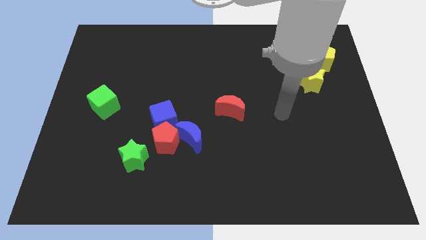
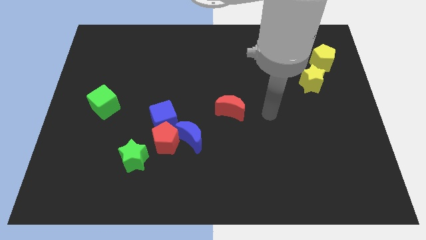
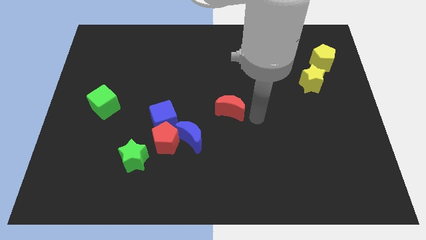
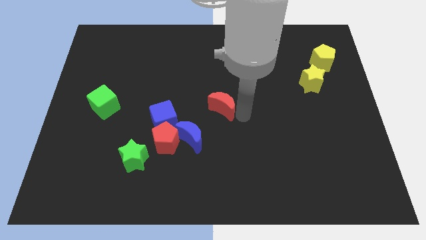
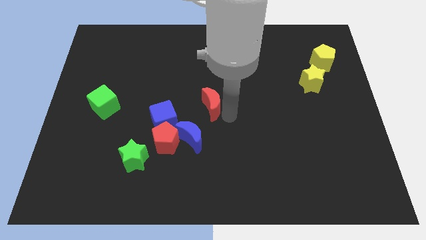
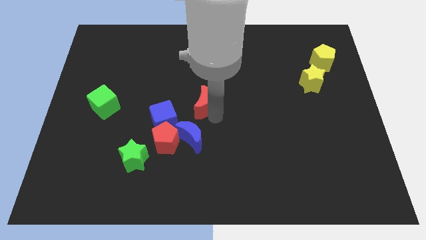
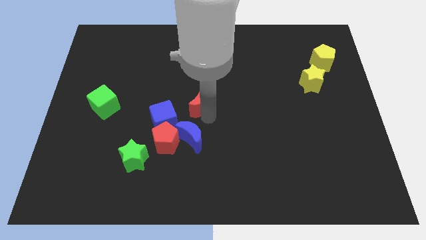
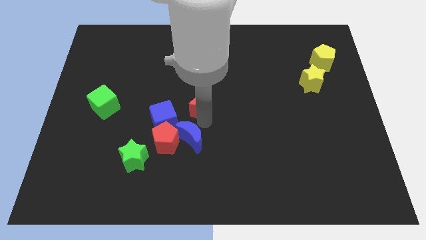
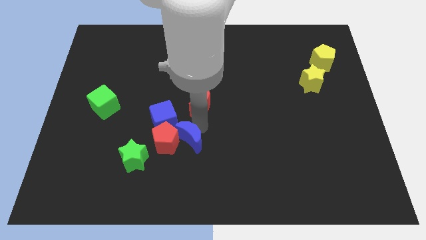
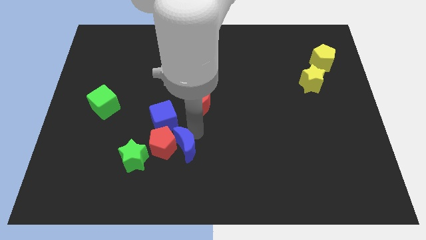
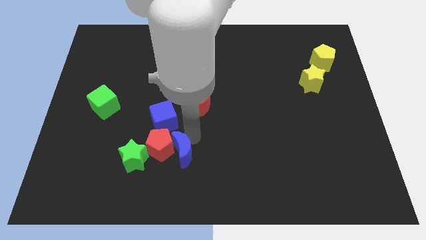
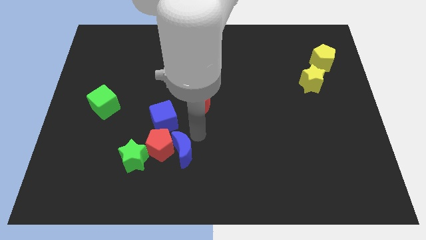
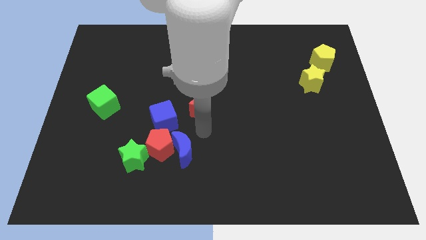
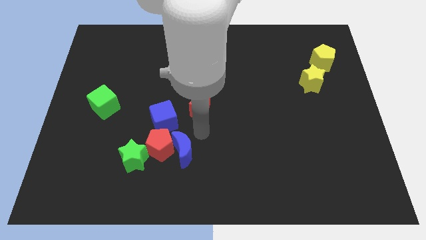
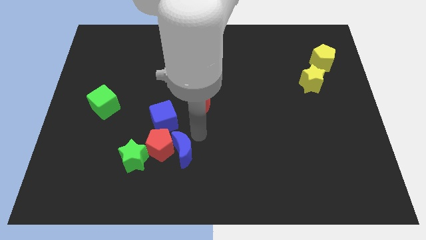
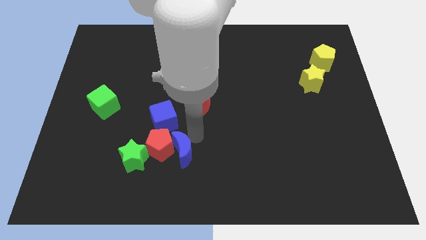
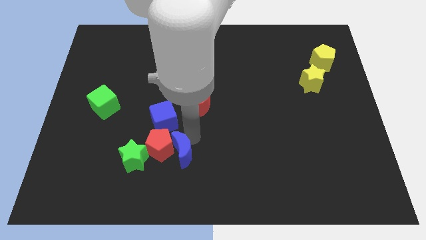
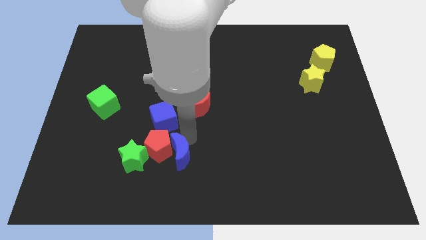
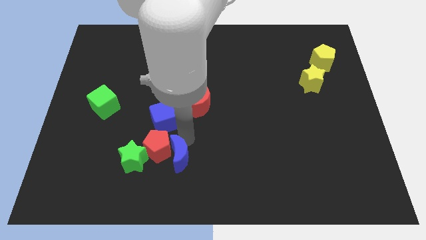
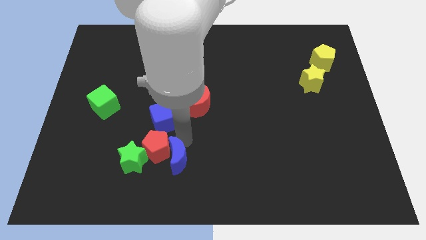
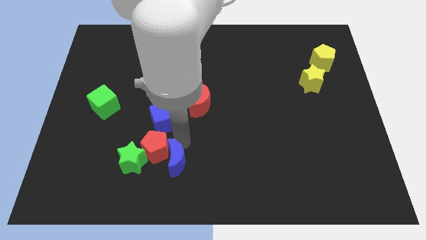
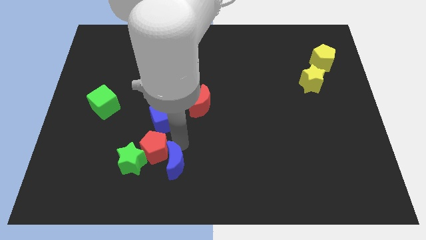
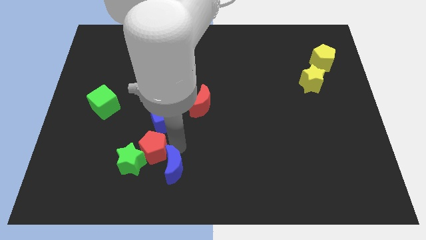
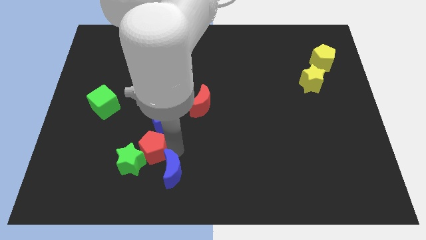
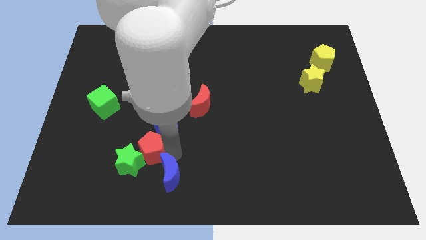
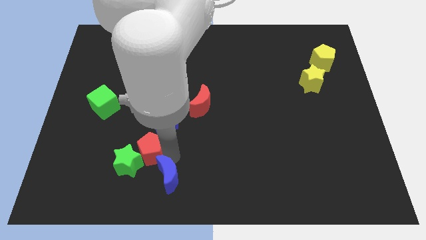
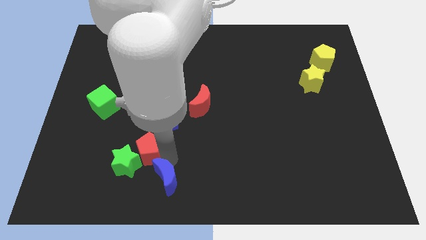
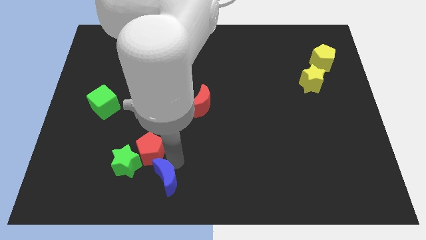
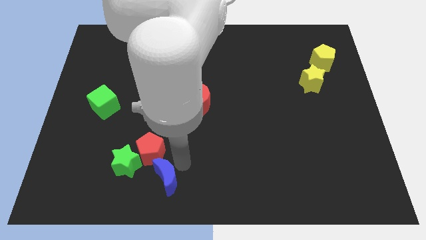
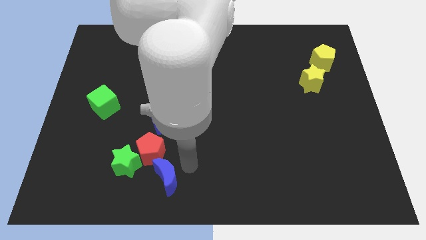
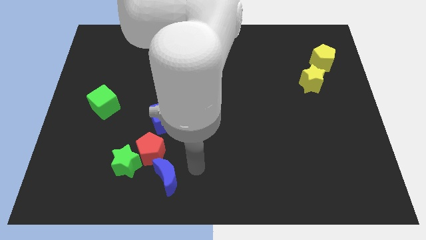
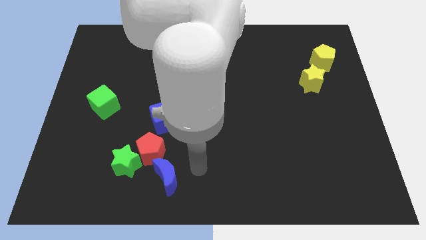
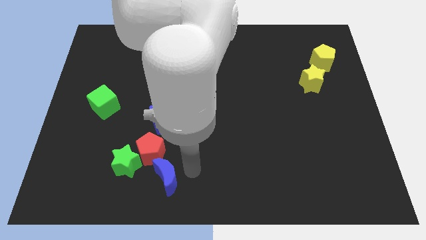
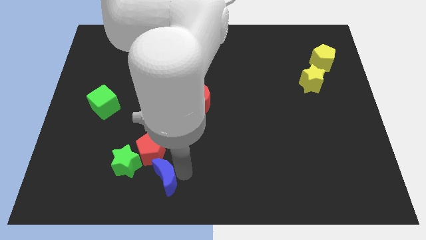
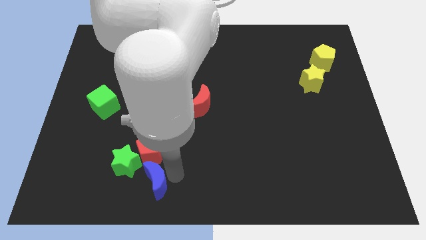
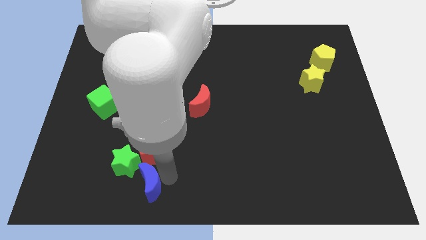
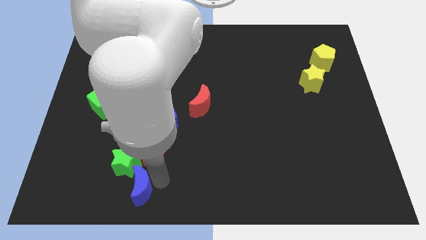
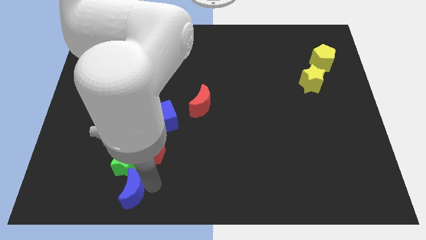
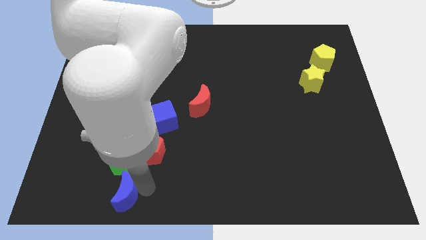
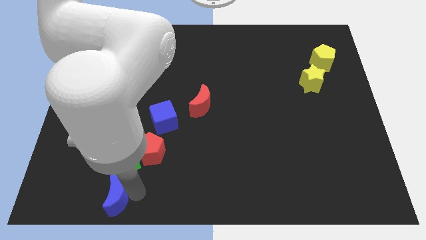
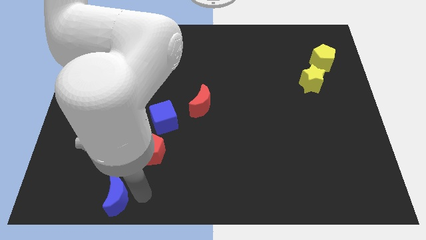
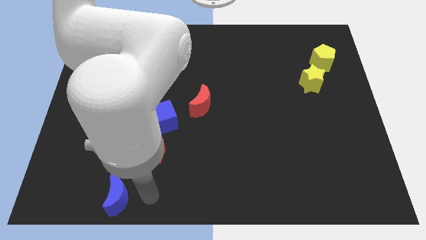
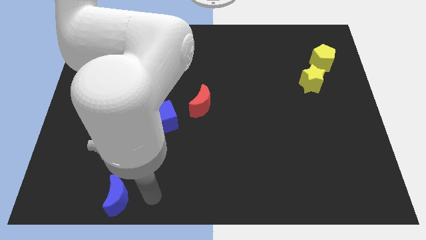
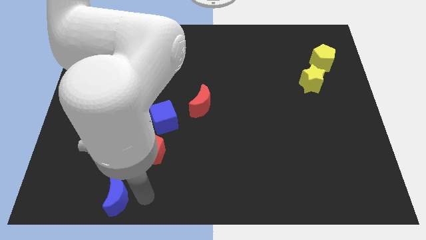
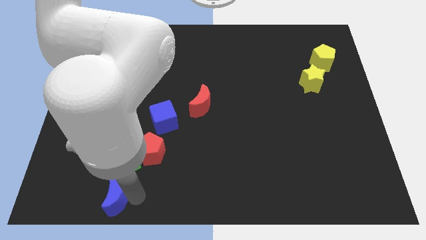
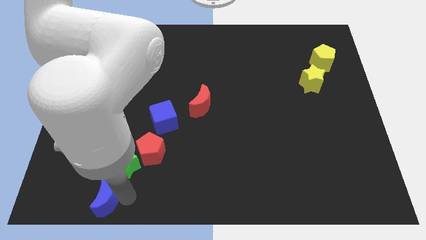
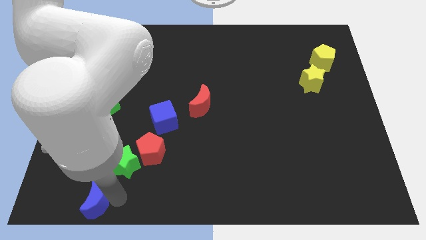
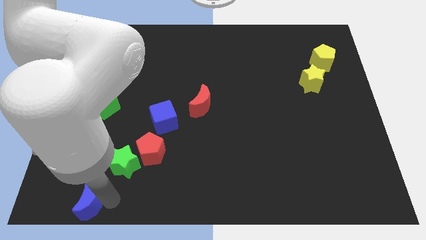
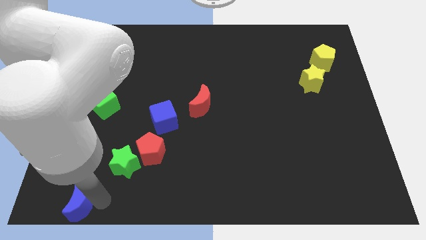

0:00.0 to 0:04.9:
put the blue moon to the lower left corner

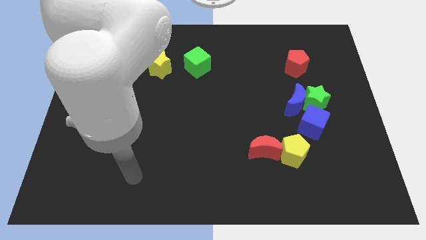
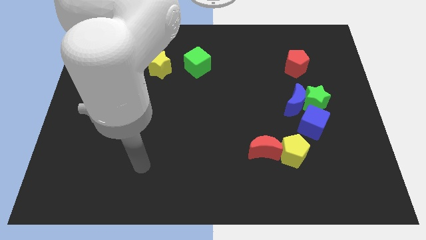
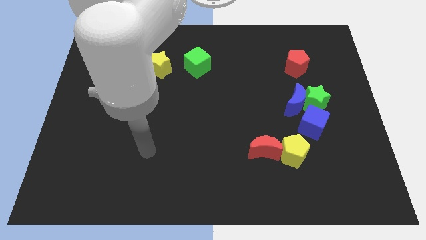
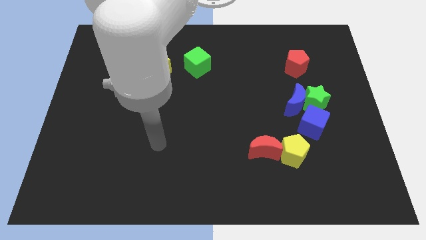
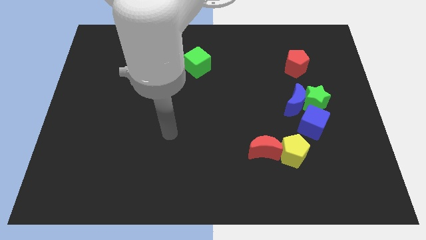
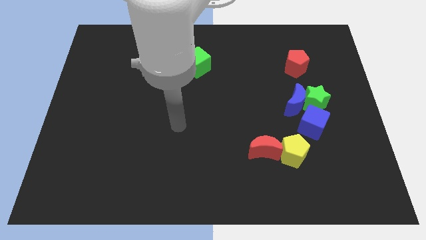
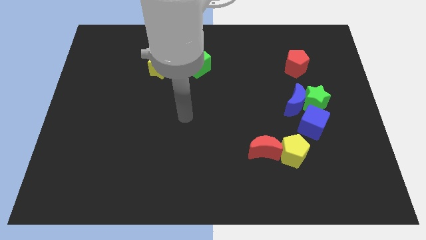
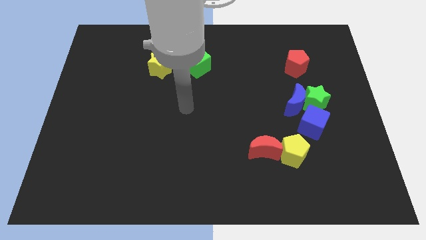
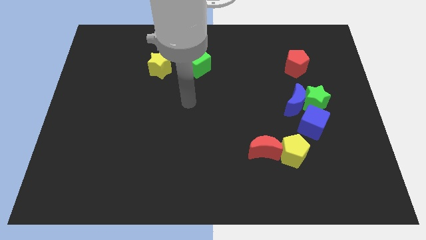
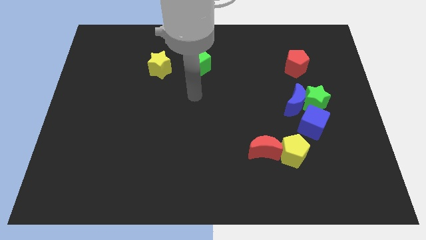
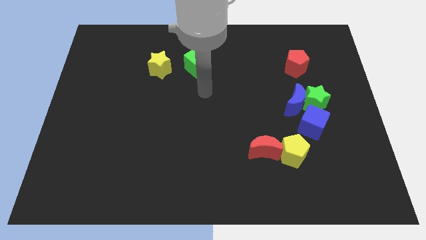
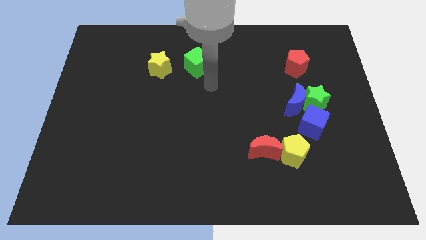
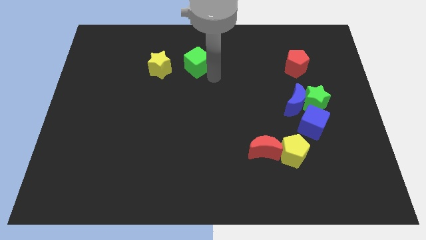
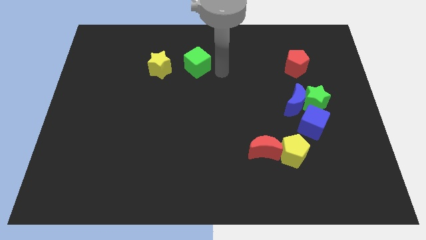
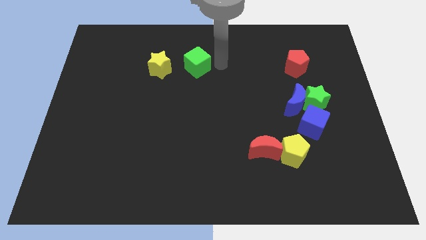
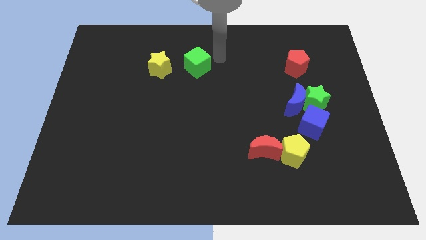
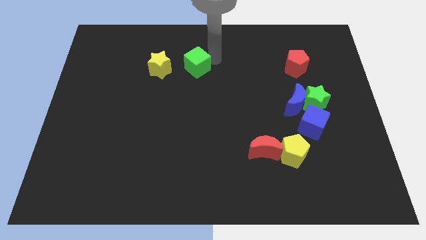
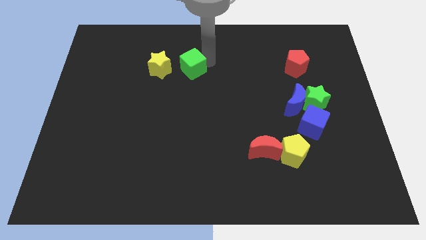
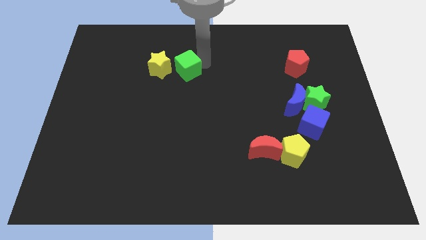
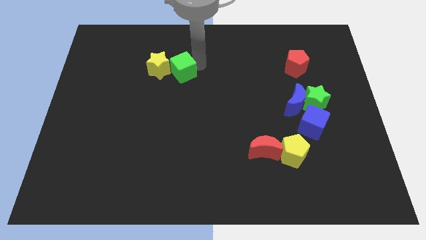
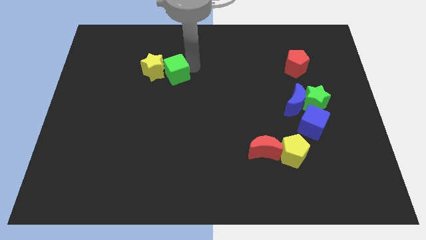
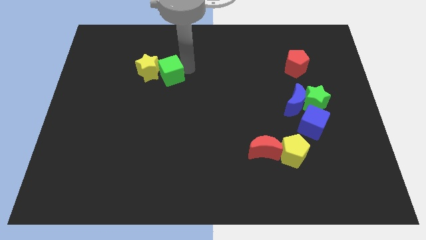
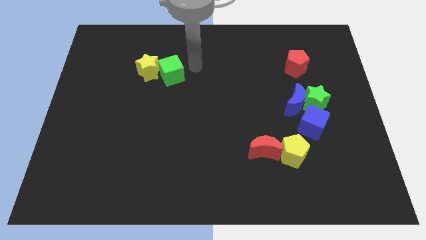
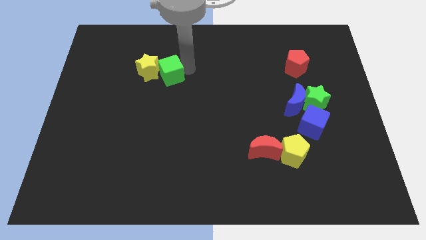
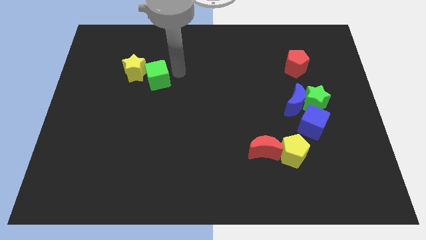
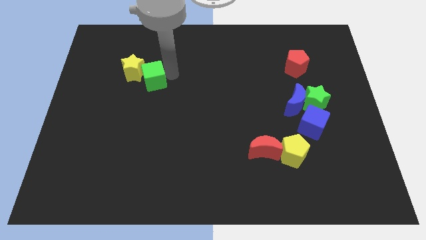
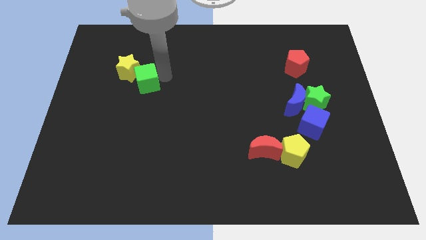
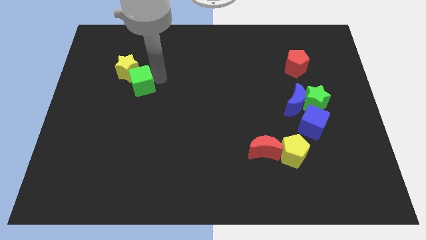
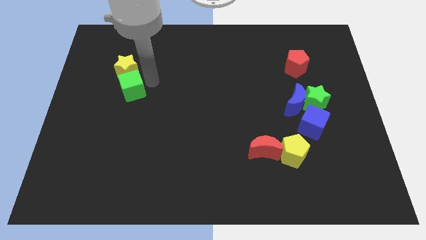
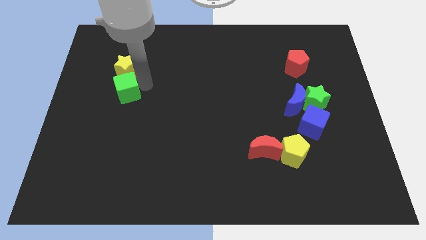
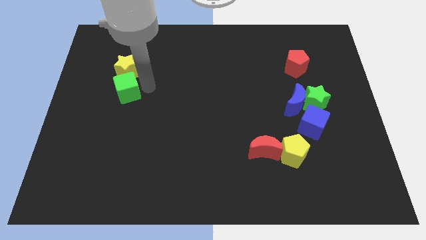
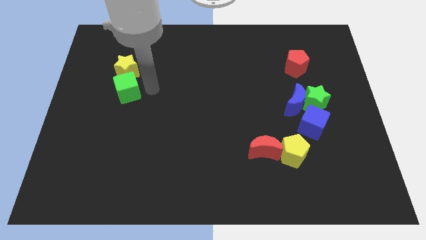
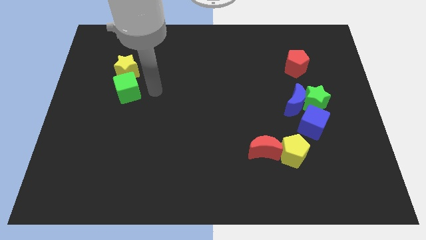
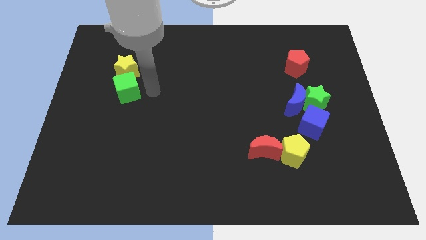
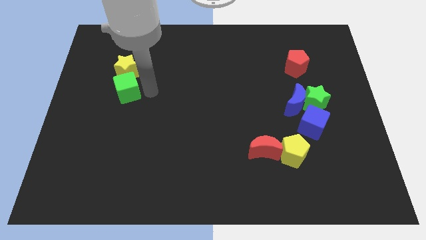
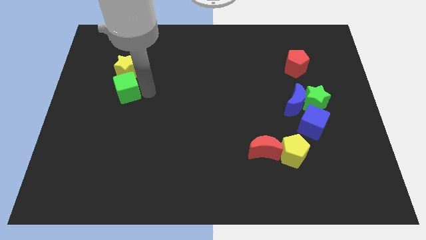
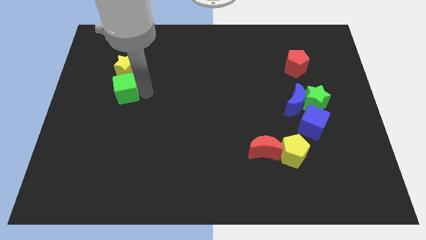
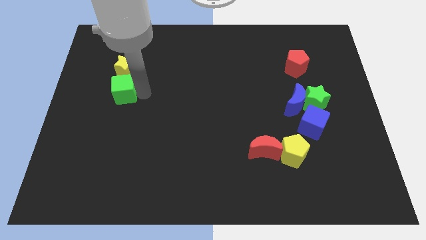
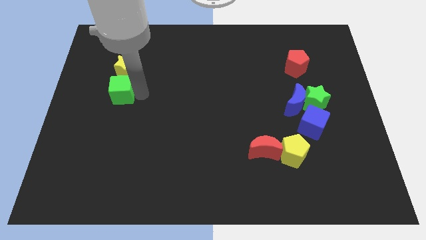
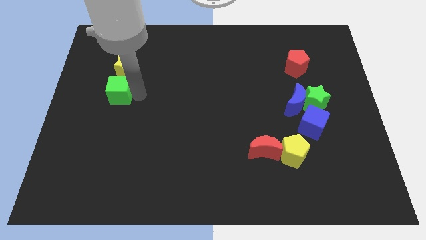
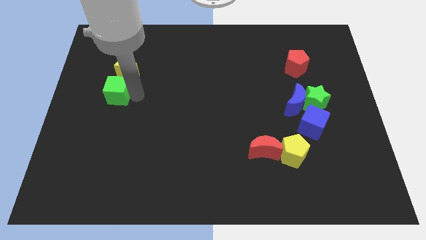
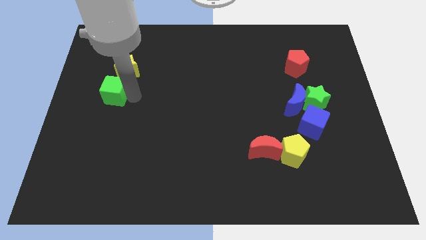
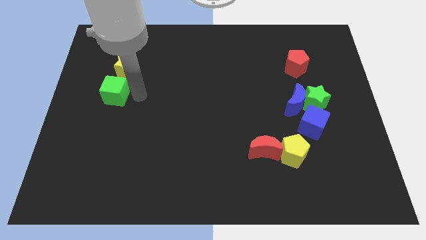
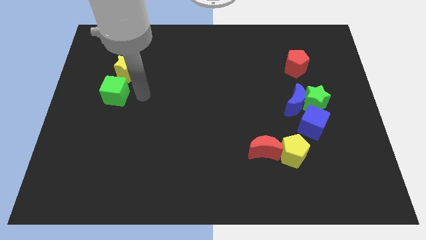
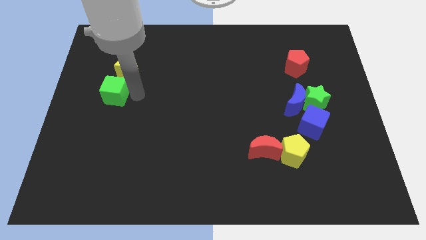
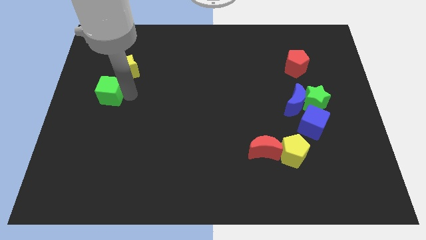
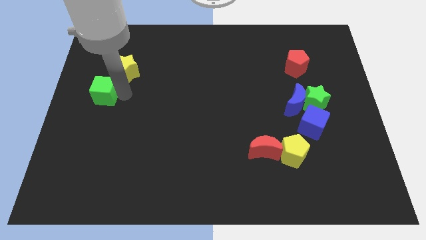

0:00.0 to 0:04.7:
move the green cube to the left side of the board
